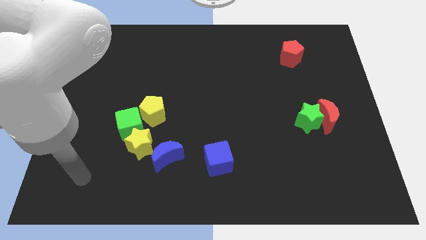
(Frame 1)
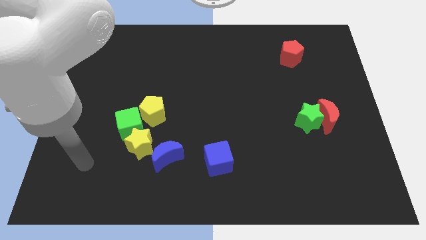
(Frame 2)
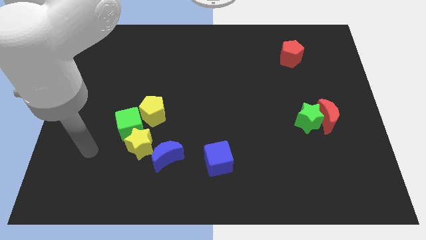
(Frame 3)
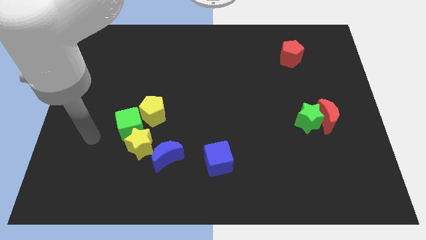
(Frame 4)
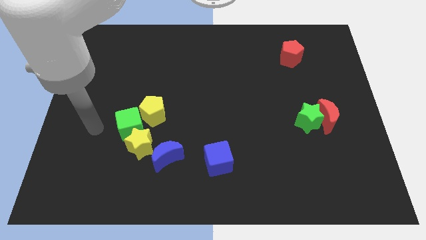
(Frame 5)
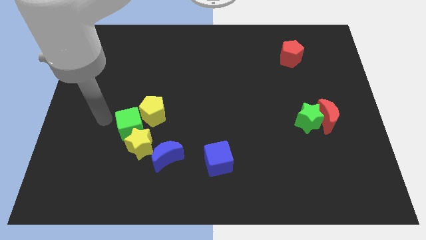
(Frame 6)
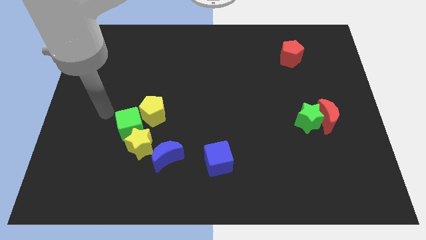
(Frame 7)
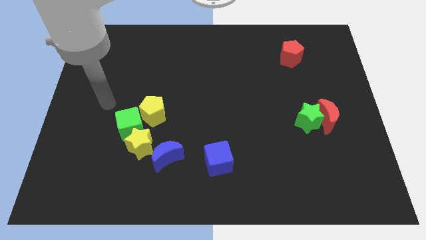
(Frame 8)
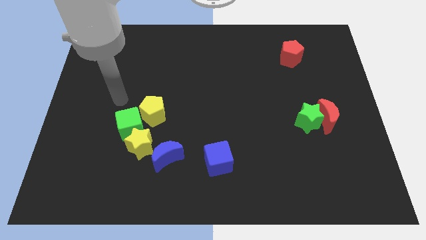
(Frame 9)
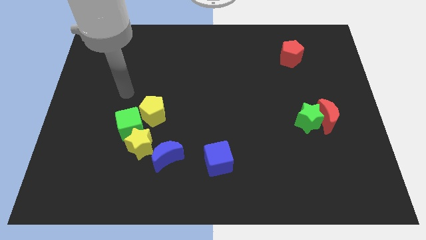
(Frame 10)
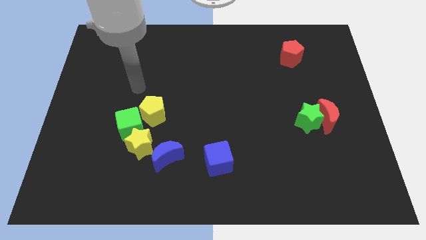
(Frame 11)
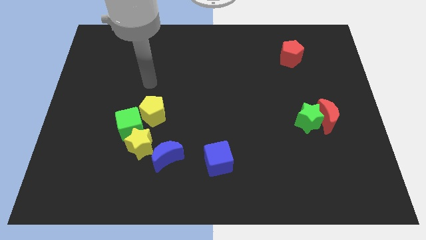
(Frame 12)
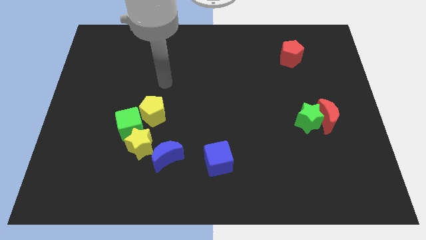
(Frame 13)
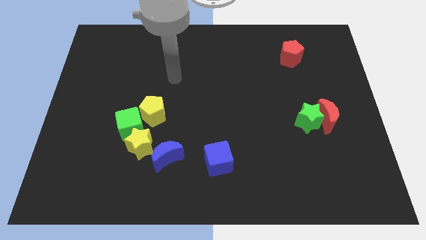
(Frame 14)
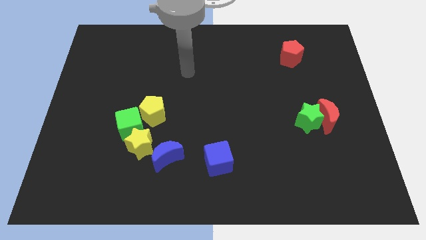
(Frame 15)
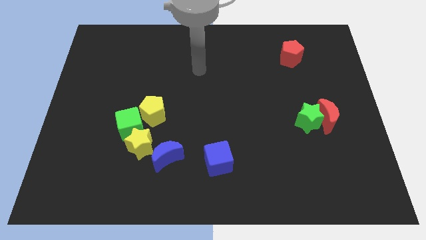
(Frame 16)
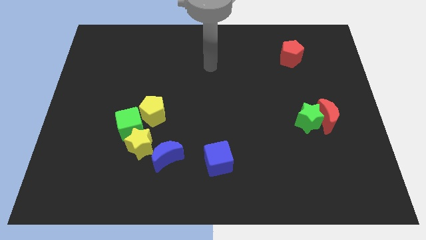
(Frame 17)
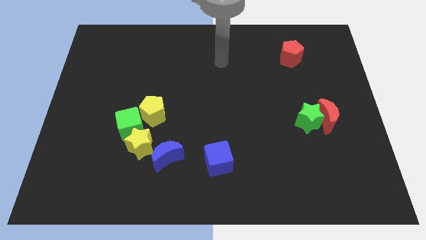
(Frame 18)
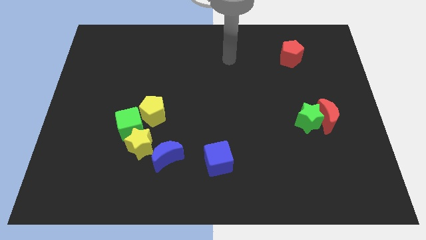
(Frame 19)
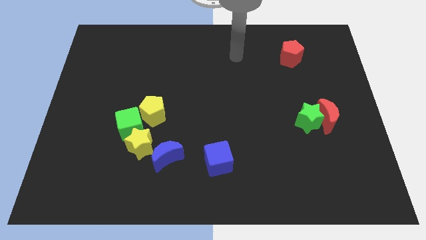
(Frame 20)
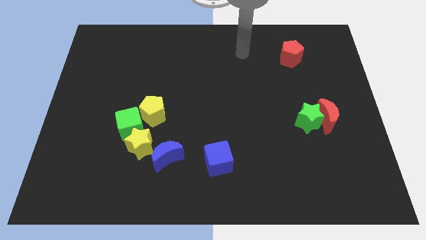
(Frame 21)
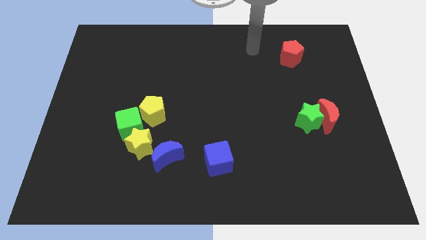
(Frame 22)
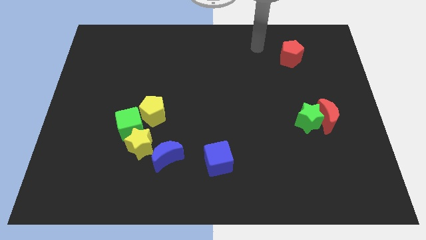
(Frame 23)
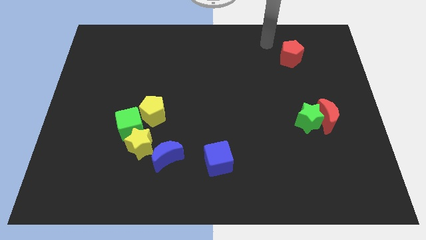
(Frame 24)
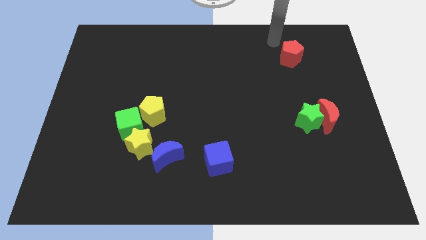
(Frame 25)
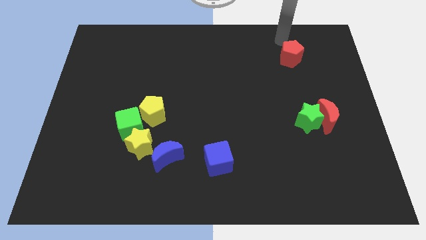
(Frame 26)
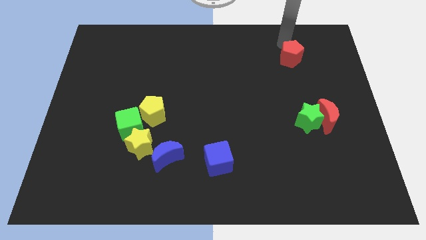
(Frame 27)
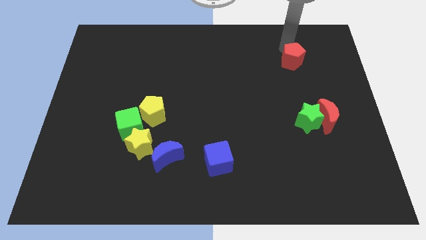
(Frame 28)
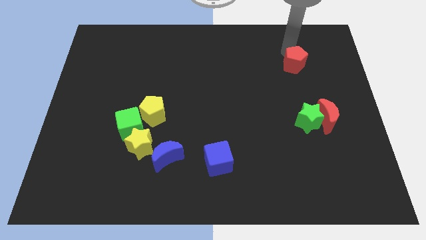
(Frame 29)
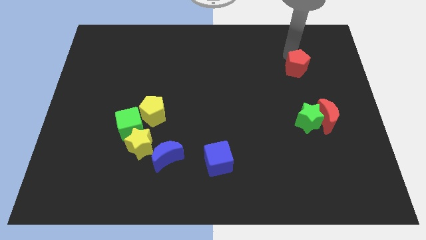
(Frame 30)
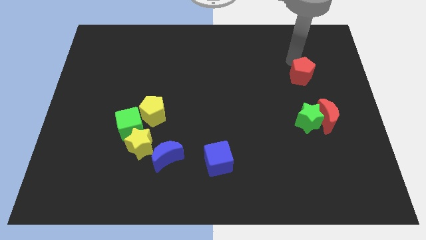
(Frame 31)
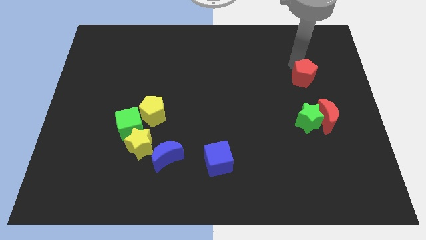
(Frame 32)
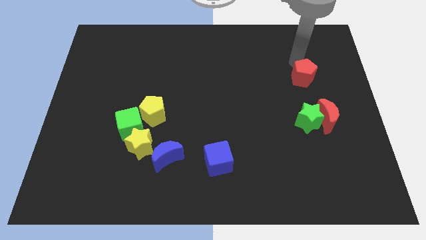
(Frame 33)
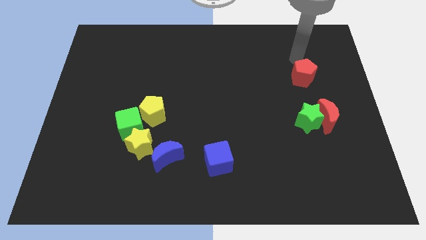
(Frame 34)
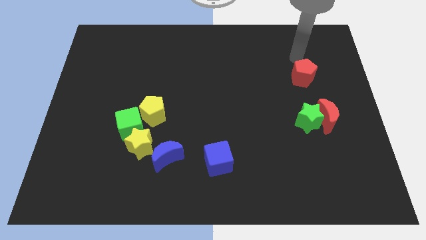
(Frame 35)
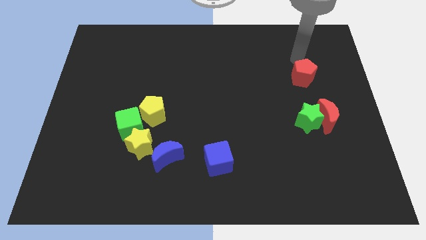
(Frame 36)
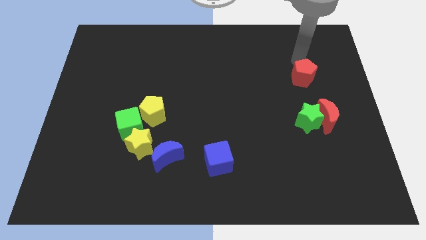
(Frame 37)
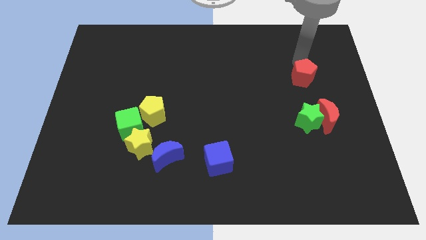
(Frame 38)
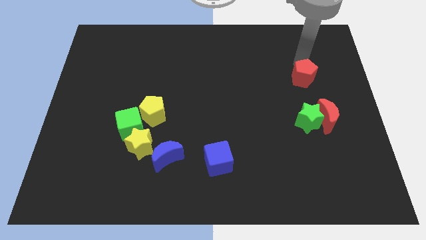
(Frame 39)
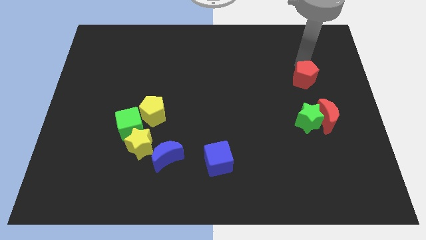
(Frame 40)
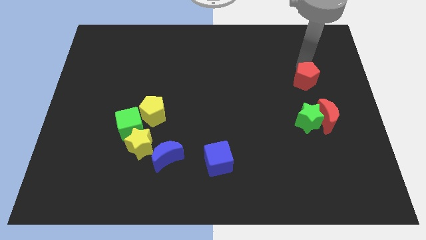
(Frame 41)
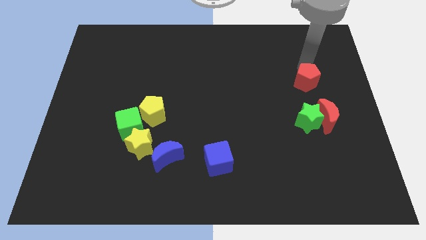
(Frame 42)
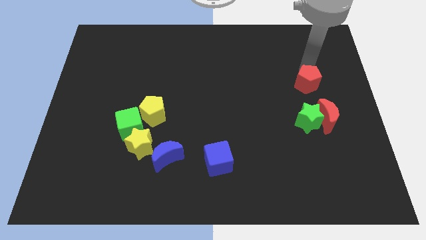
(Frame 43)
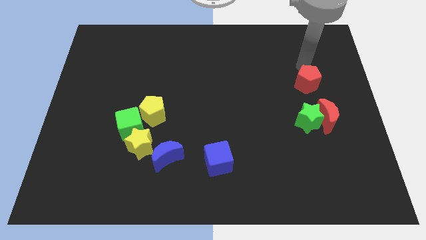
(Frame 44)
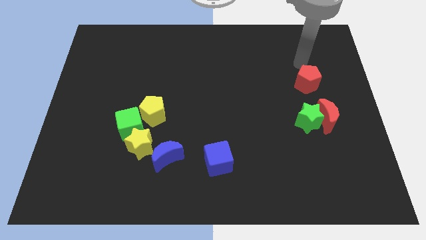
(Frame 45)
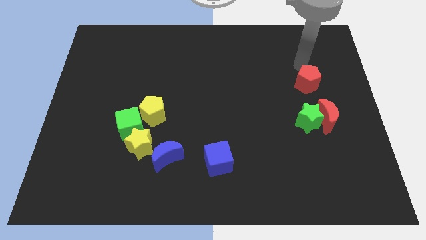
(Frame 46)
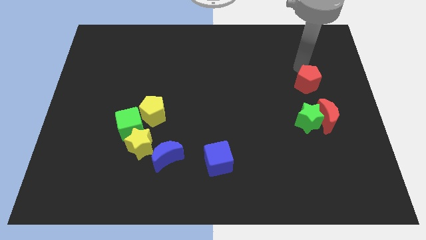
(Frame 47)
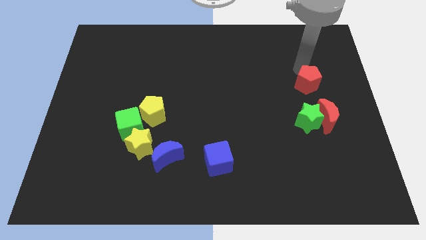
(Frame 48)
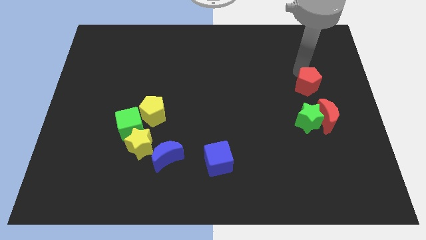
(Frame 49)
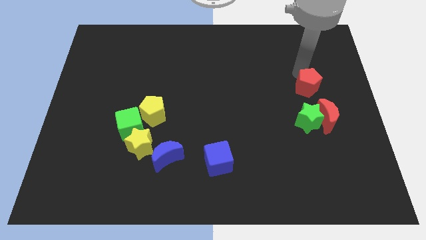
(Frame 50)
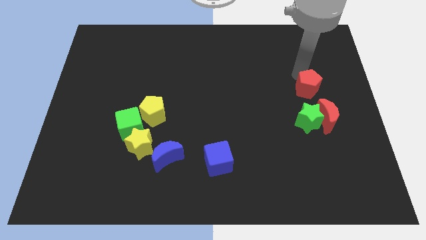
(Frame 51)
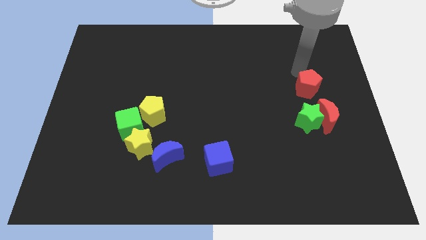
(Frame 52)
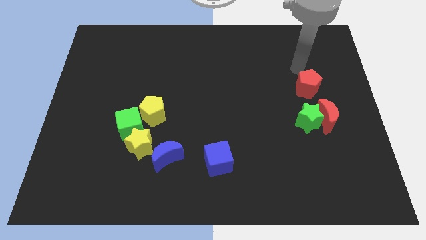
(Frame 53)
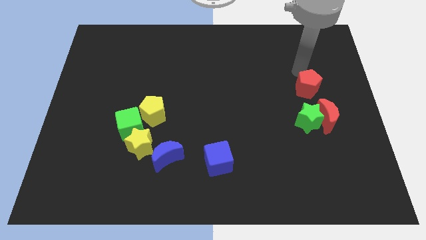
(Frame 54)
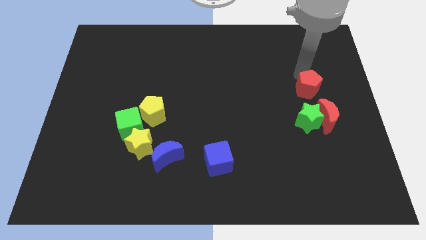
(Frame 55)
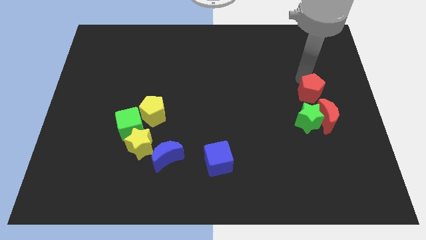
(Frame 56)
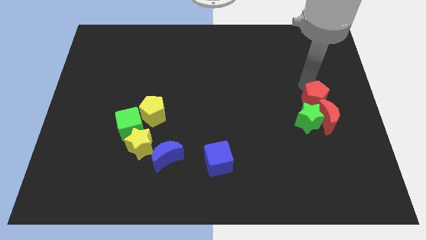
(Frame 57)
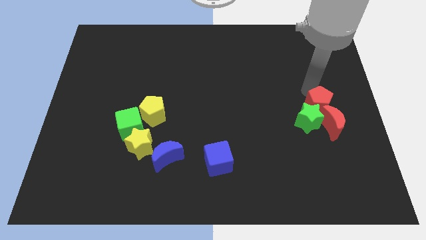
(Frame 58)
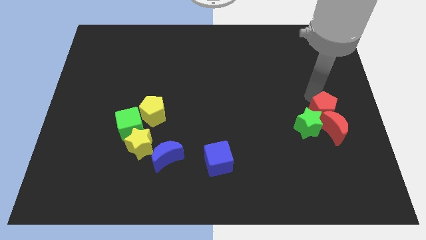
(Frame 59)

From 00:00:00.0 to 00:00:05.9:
push the red pentagon to the red moon
